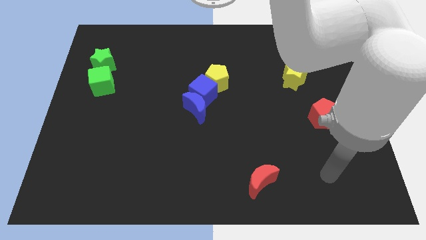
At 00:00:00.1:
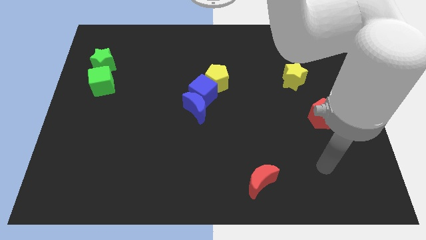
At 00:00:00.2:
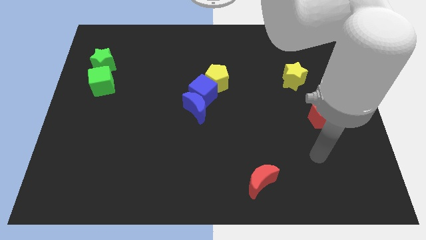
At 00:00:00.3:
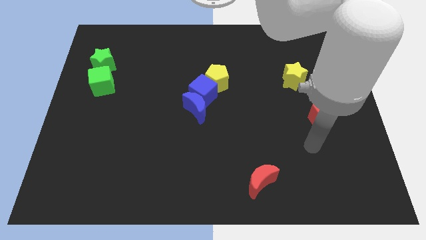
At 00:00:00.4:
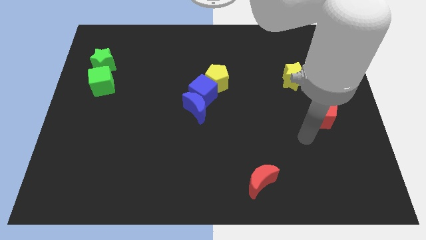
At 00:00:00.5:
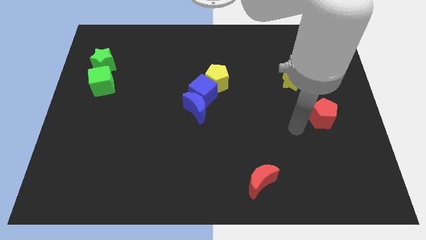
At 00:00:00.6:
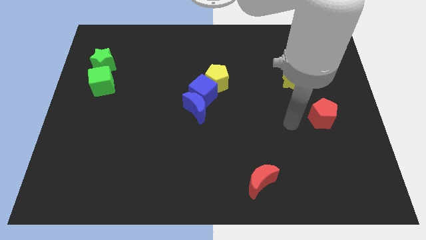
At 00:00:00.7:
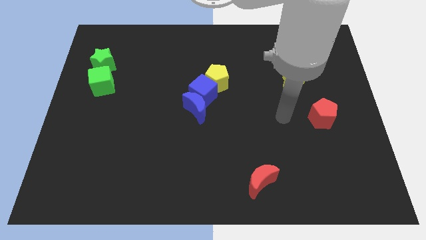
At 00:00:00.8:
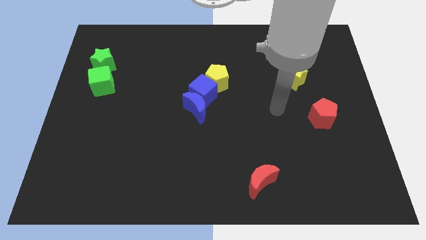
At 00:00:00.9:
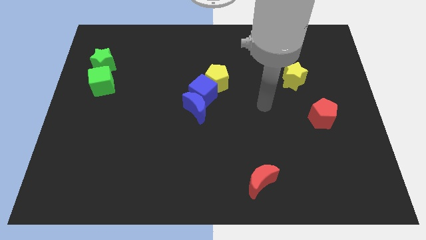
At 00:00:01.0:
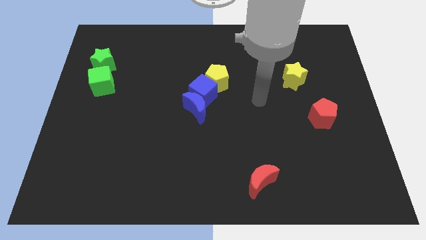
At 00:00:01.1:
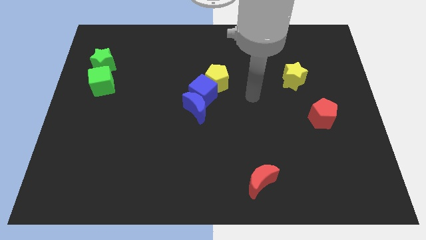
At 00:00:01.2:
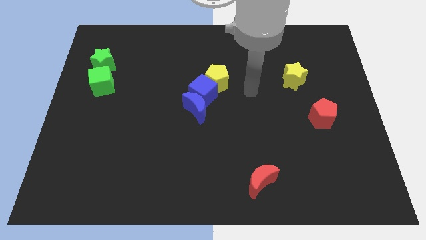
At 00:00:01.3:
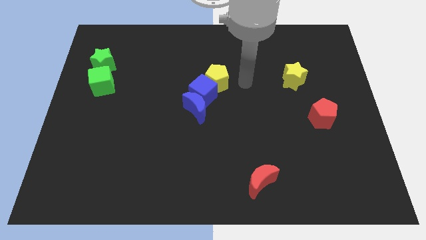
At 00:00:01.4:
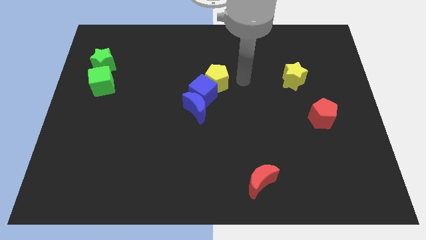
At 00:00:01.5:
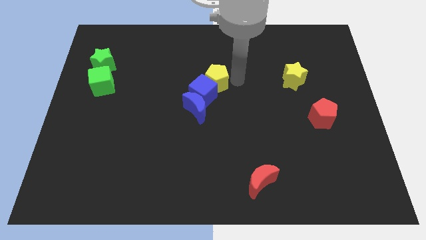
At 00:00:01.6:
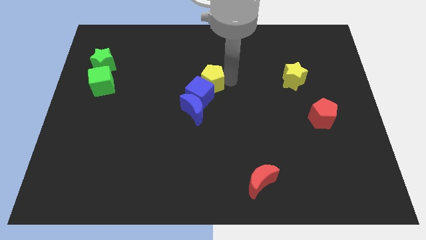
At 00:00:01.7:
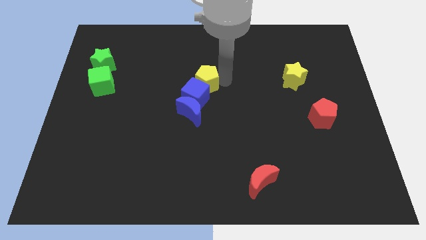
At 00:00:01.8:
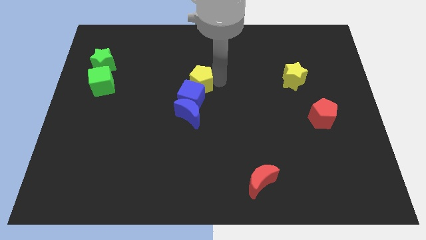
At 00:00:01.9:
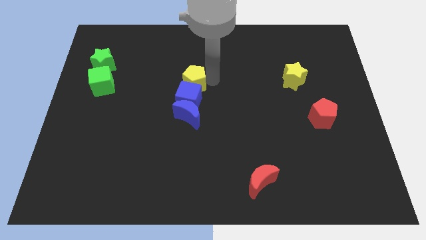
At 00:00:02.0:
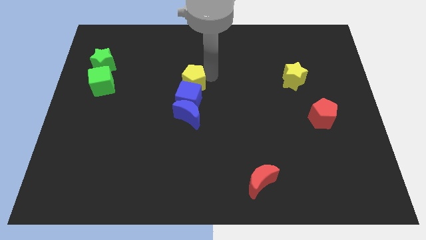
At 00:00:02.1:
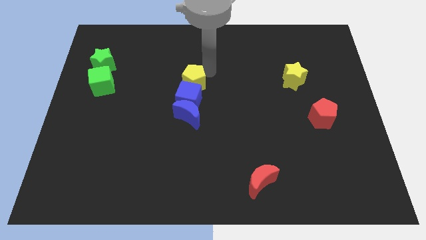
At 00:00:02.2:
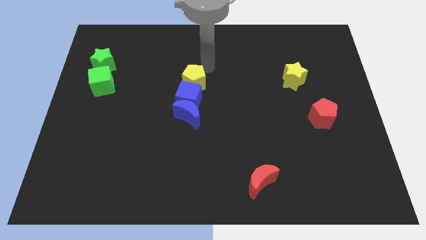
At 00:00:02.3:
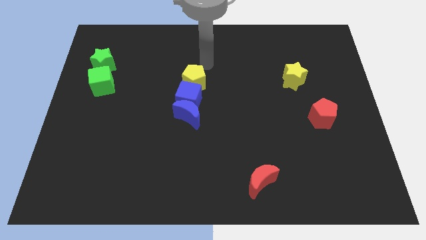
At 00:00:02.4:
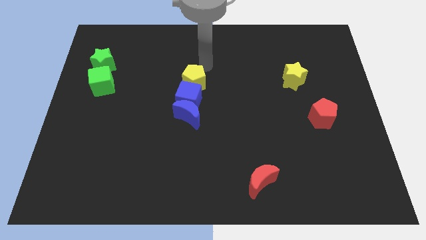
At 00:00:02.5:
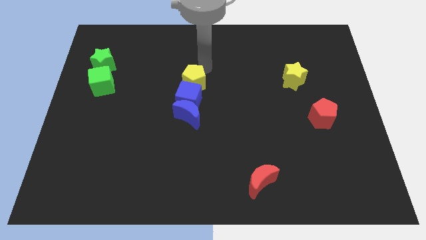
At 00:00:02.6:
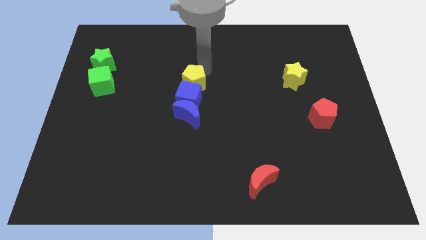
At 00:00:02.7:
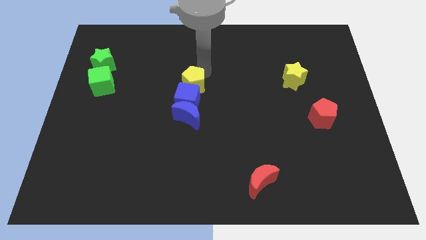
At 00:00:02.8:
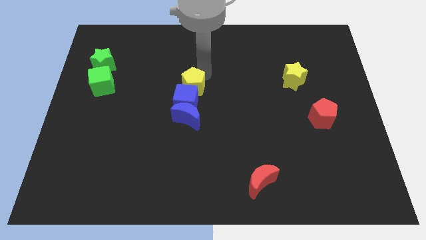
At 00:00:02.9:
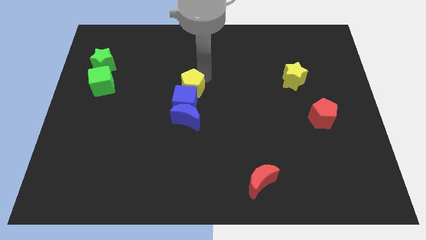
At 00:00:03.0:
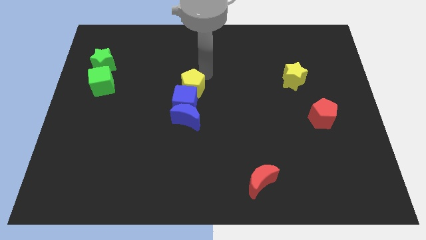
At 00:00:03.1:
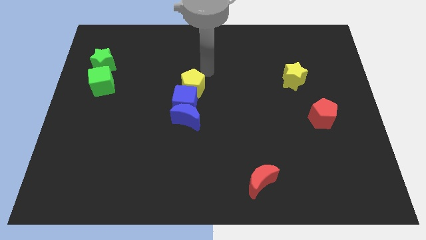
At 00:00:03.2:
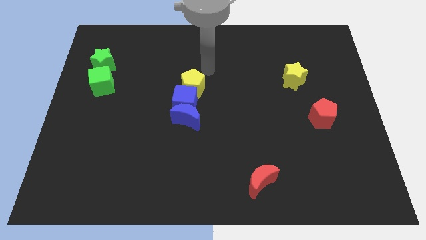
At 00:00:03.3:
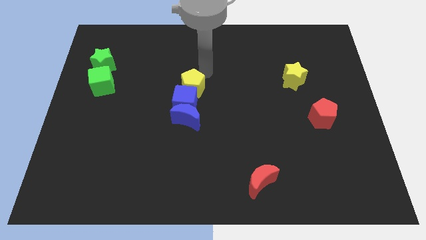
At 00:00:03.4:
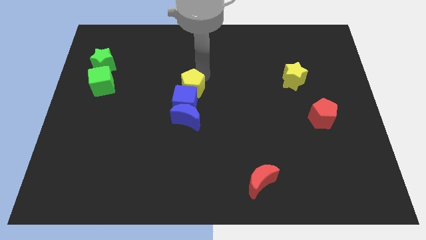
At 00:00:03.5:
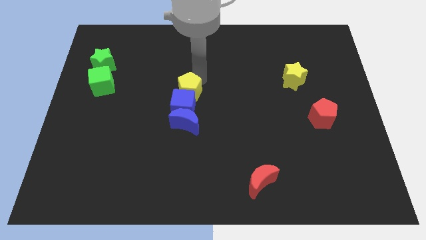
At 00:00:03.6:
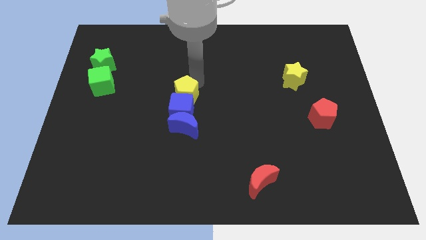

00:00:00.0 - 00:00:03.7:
slide the yellow pentagon slightly down and to the left diagonally

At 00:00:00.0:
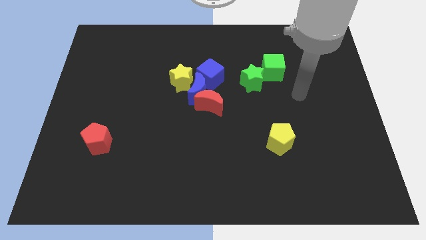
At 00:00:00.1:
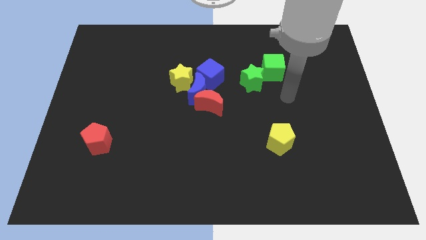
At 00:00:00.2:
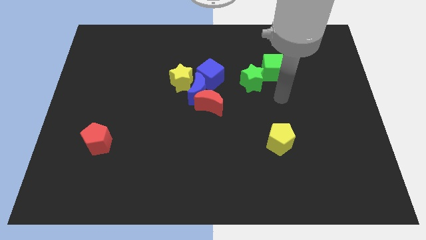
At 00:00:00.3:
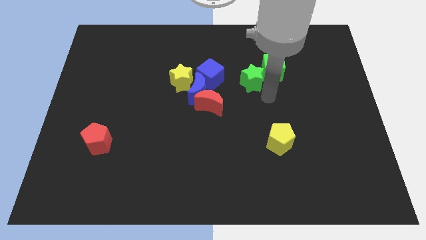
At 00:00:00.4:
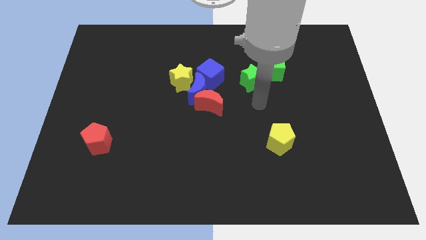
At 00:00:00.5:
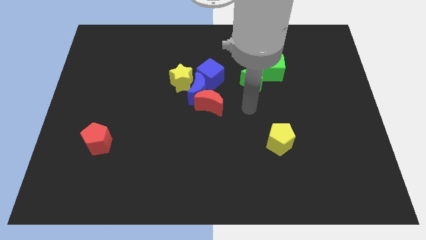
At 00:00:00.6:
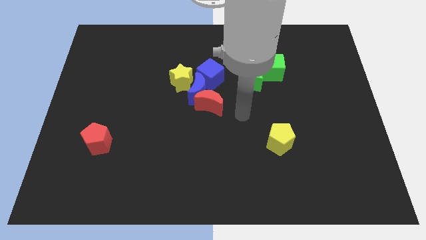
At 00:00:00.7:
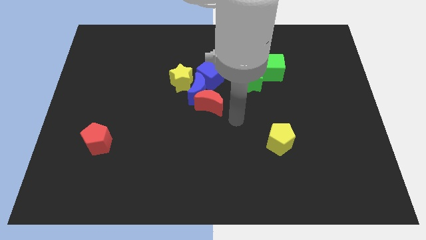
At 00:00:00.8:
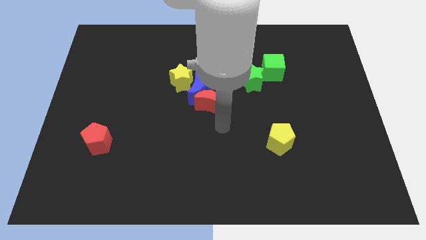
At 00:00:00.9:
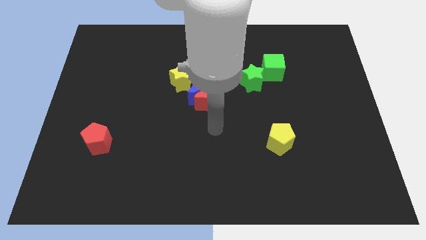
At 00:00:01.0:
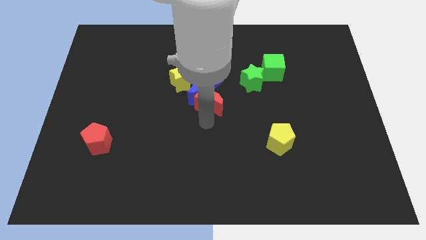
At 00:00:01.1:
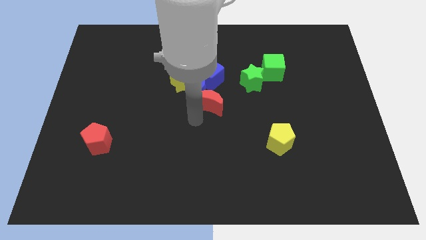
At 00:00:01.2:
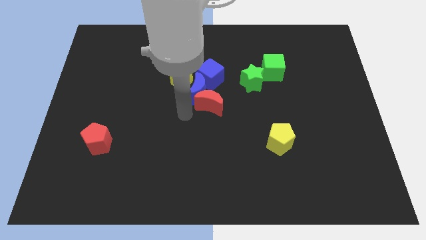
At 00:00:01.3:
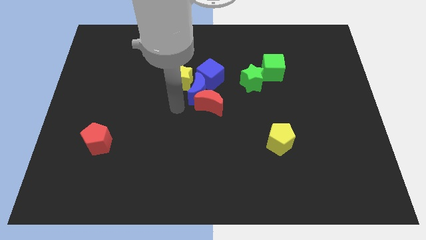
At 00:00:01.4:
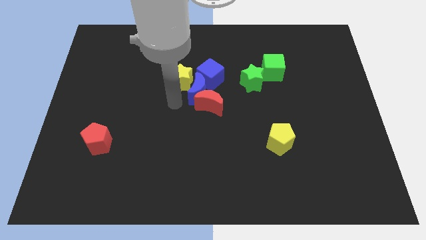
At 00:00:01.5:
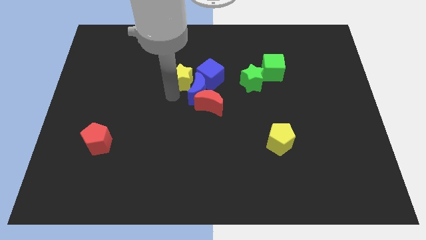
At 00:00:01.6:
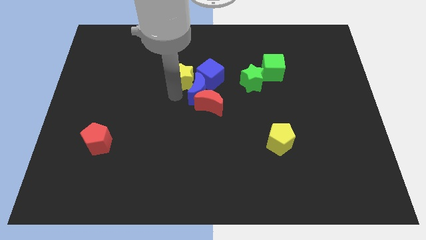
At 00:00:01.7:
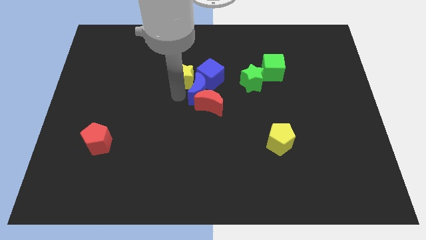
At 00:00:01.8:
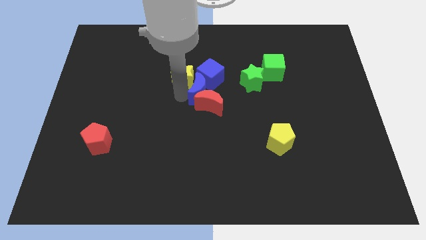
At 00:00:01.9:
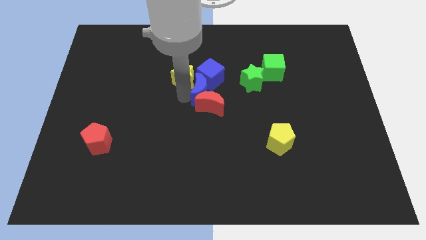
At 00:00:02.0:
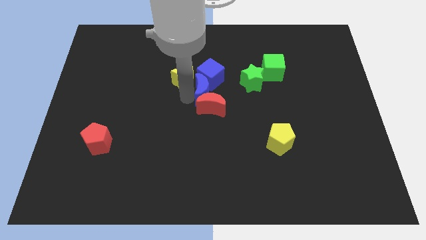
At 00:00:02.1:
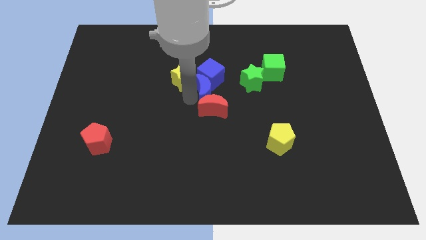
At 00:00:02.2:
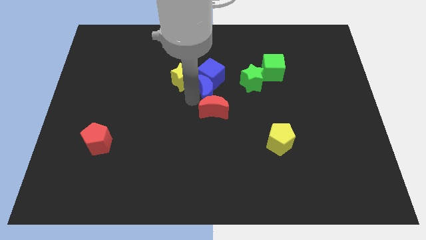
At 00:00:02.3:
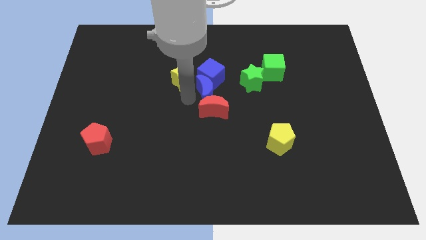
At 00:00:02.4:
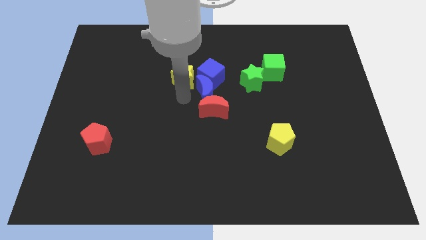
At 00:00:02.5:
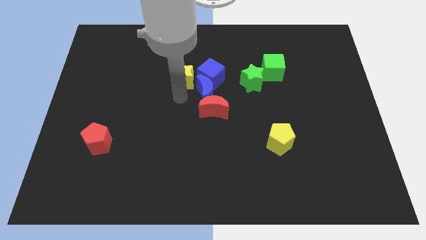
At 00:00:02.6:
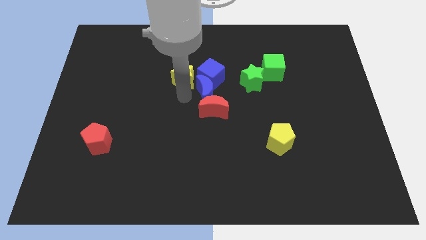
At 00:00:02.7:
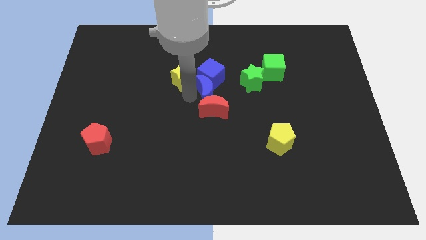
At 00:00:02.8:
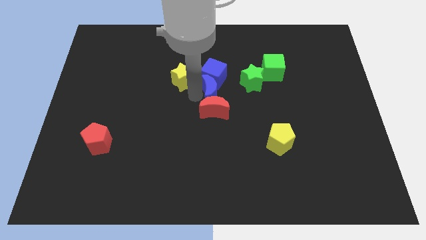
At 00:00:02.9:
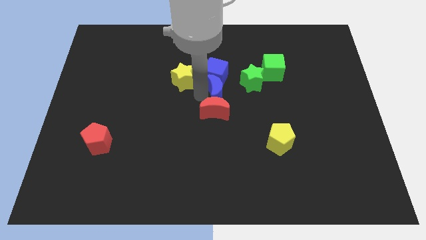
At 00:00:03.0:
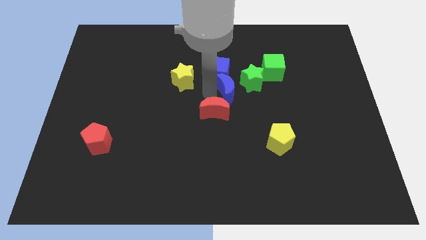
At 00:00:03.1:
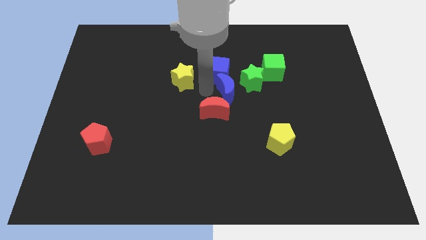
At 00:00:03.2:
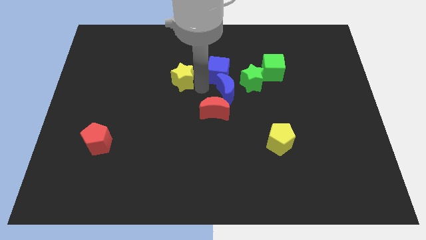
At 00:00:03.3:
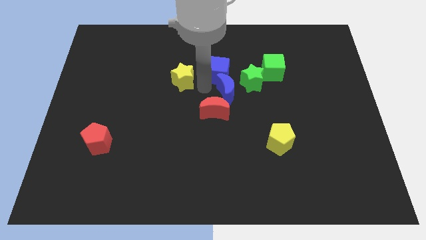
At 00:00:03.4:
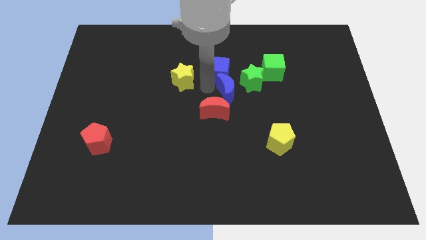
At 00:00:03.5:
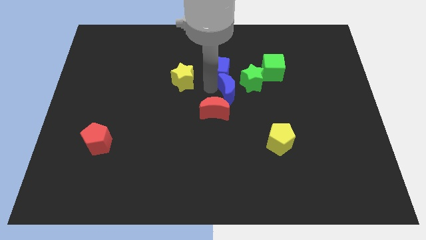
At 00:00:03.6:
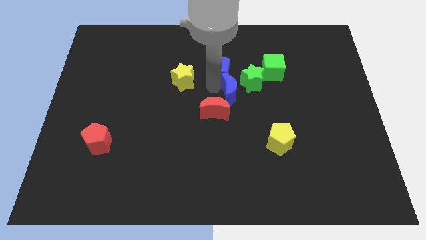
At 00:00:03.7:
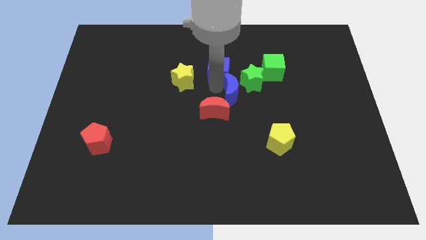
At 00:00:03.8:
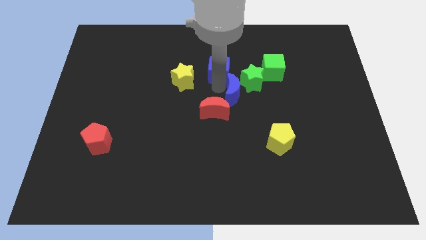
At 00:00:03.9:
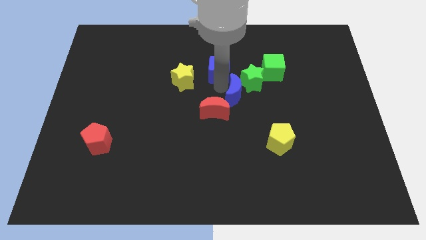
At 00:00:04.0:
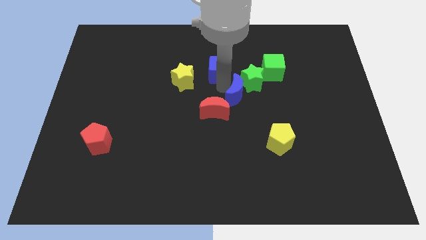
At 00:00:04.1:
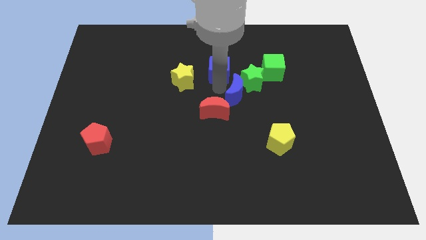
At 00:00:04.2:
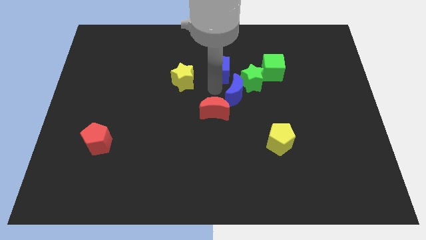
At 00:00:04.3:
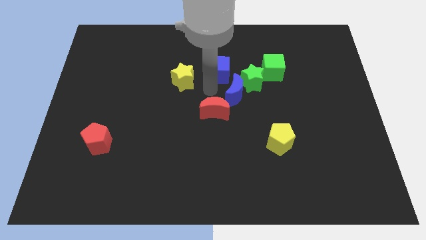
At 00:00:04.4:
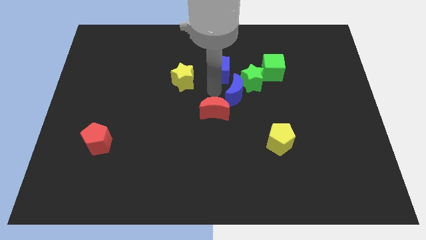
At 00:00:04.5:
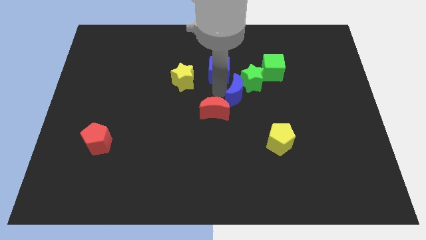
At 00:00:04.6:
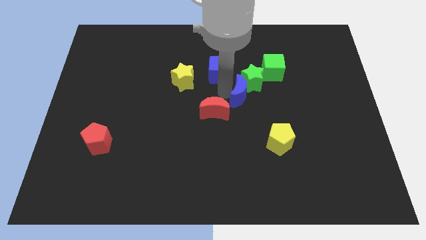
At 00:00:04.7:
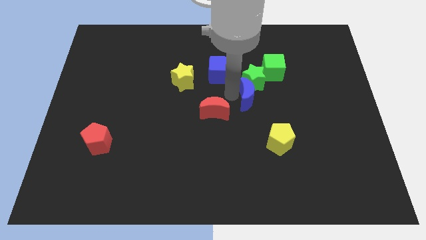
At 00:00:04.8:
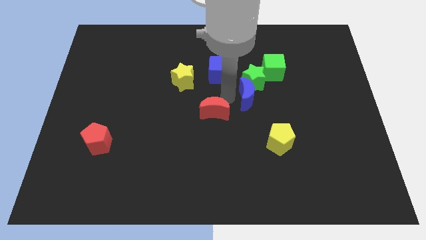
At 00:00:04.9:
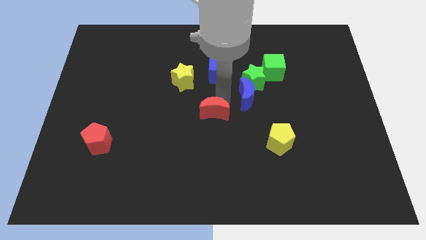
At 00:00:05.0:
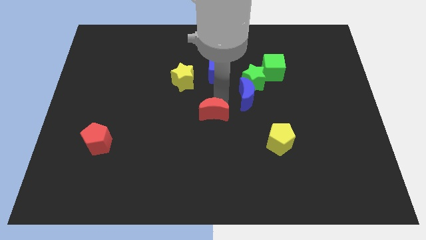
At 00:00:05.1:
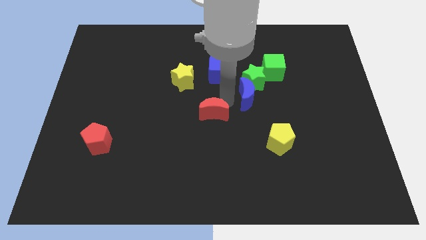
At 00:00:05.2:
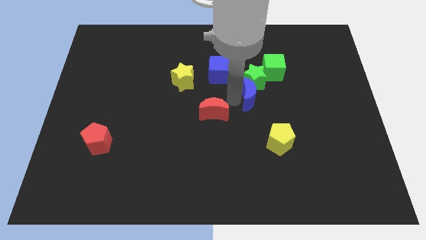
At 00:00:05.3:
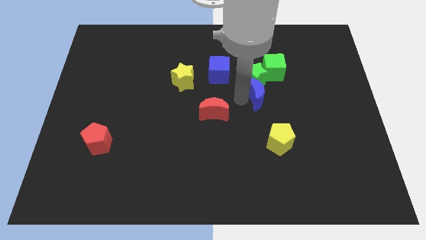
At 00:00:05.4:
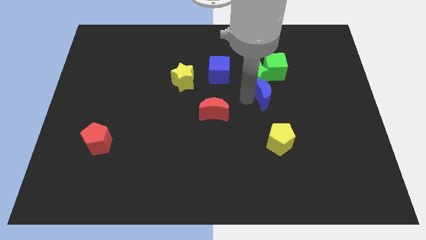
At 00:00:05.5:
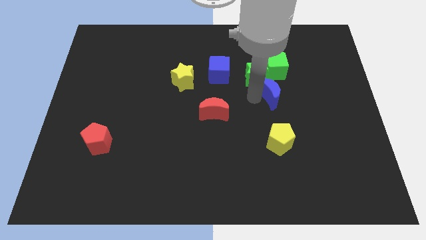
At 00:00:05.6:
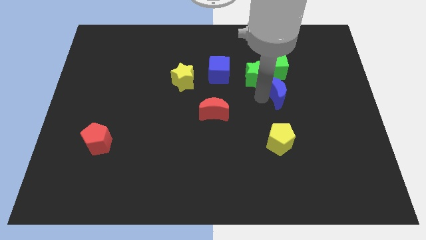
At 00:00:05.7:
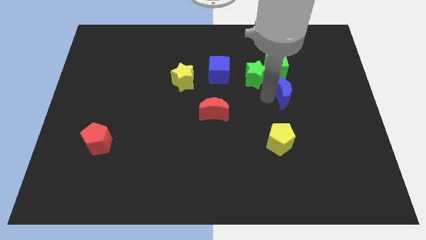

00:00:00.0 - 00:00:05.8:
push the blue moon to the right
